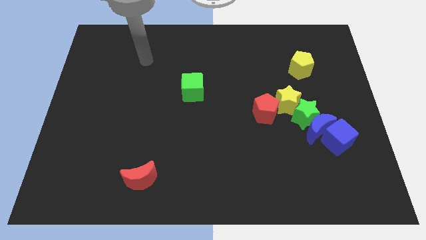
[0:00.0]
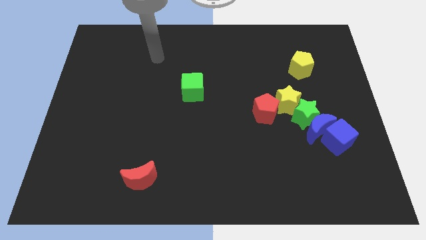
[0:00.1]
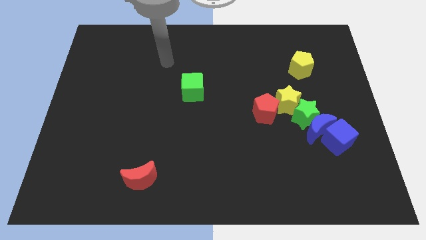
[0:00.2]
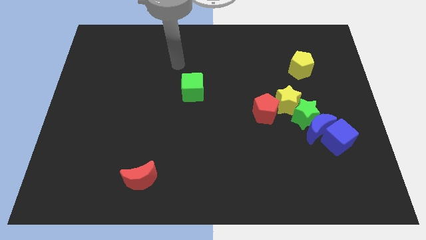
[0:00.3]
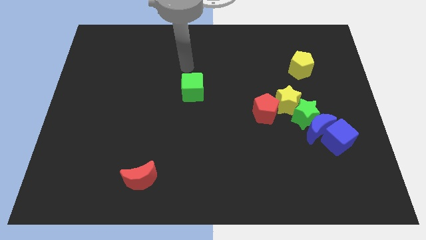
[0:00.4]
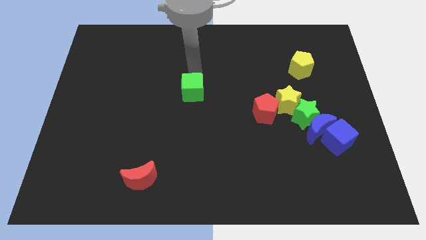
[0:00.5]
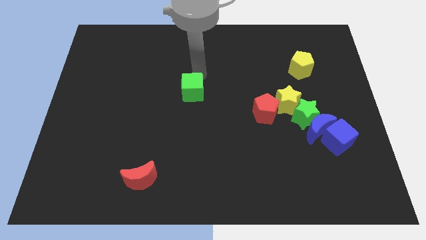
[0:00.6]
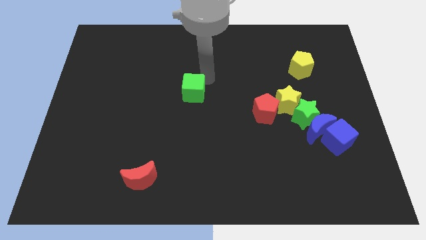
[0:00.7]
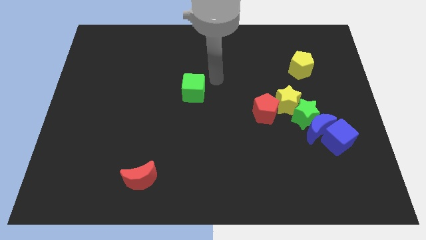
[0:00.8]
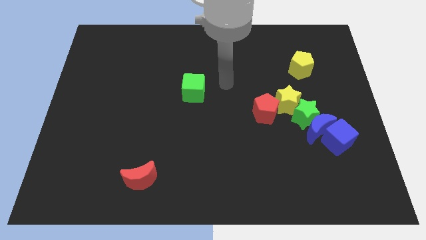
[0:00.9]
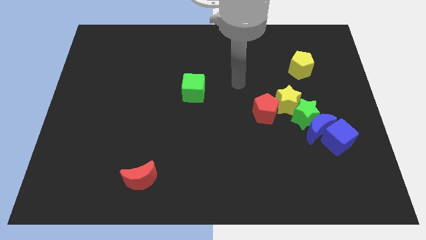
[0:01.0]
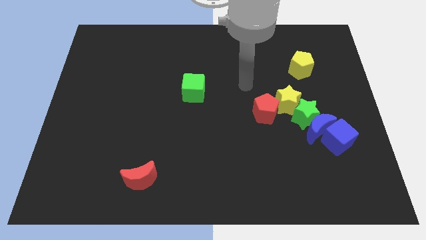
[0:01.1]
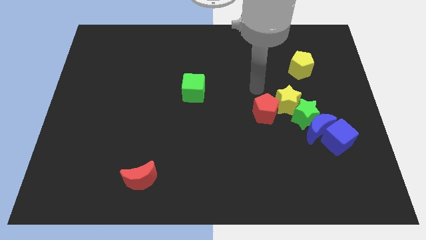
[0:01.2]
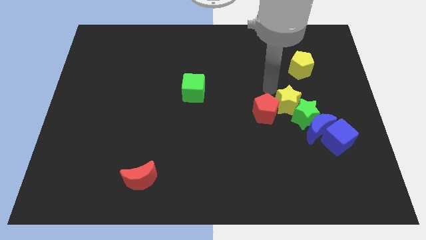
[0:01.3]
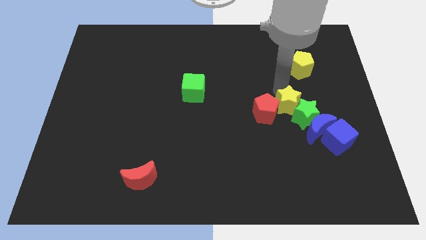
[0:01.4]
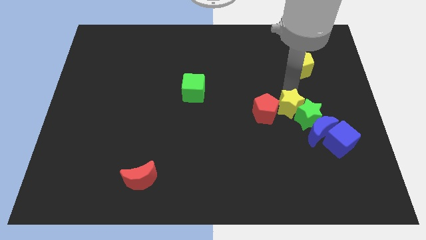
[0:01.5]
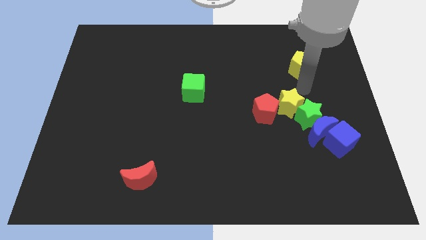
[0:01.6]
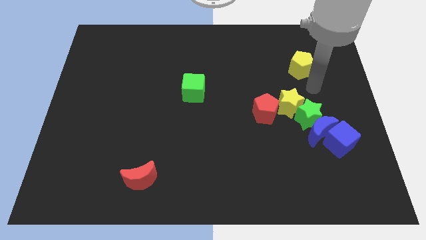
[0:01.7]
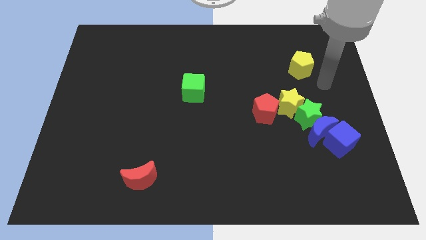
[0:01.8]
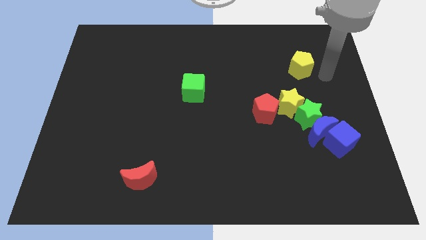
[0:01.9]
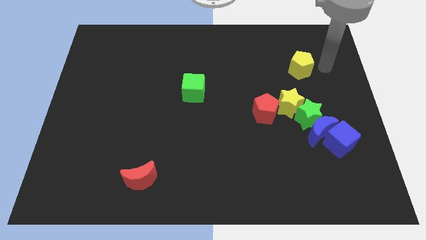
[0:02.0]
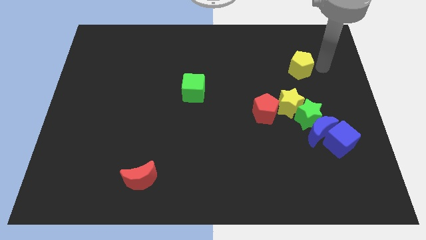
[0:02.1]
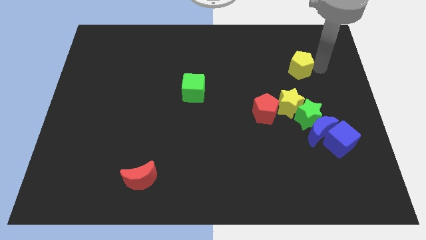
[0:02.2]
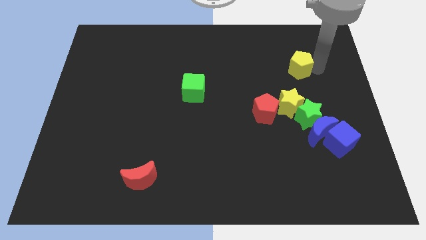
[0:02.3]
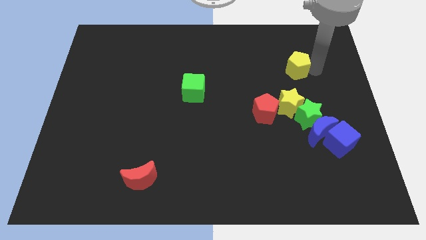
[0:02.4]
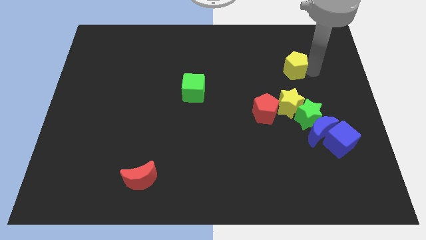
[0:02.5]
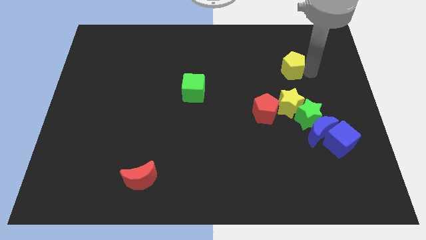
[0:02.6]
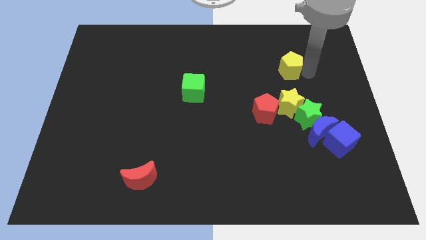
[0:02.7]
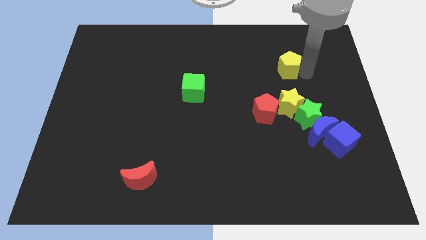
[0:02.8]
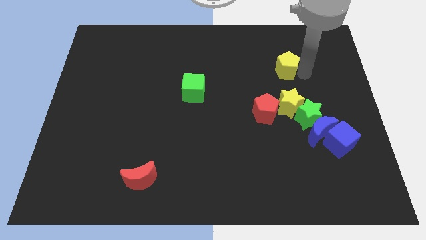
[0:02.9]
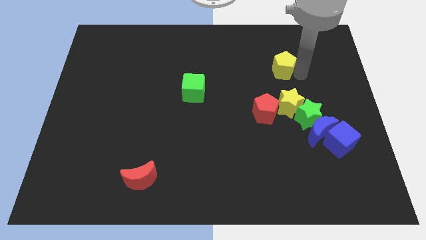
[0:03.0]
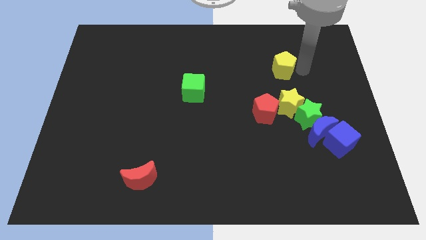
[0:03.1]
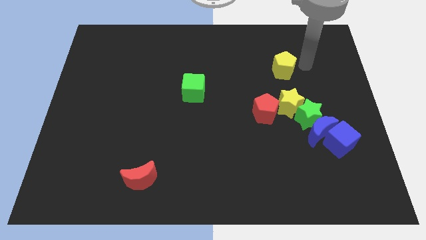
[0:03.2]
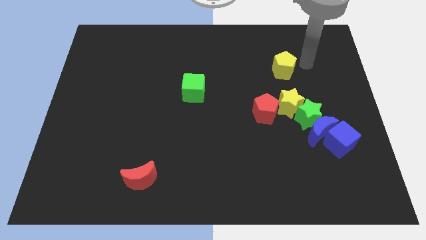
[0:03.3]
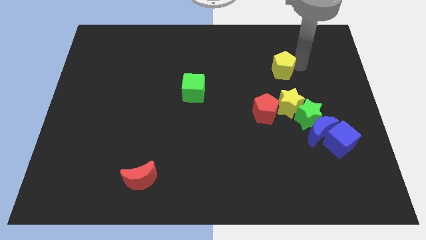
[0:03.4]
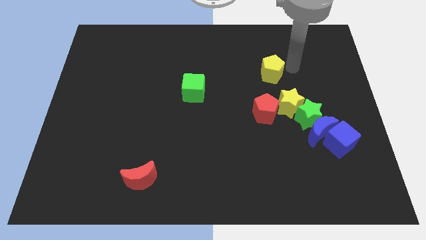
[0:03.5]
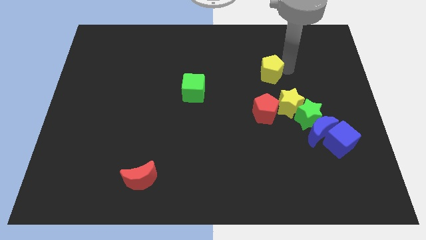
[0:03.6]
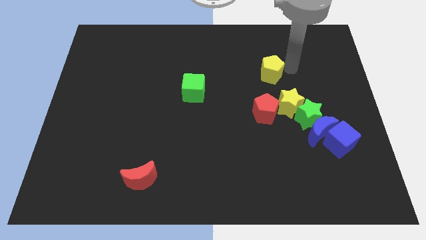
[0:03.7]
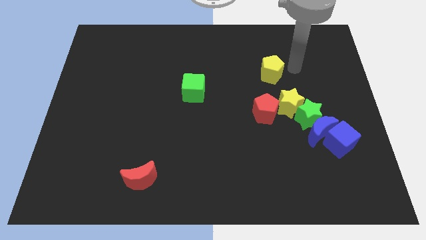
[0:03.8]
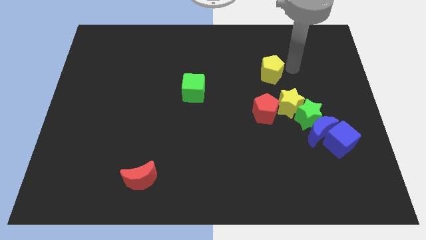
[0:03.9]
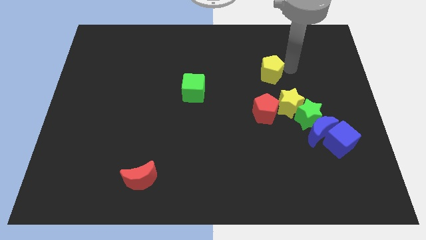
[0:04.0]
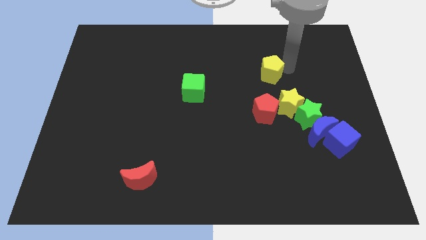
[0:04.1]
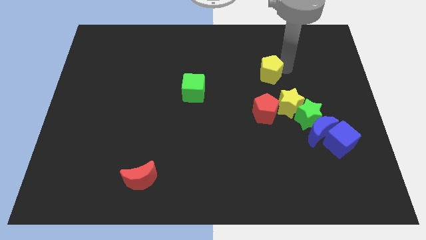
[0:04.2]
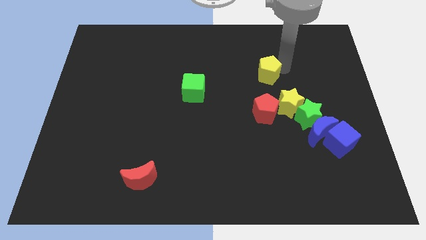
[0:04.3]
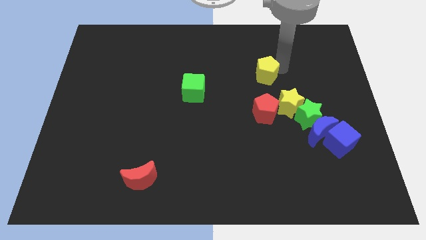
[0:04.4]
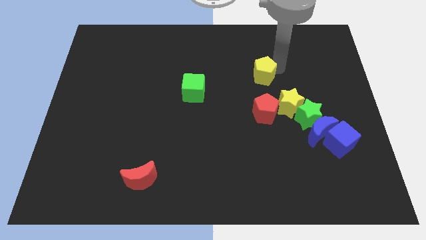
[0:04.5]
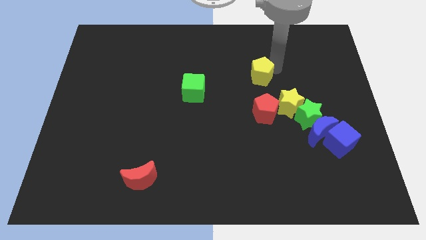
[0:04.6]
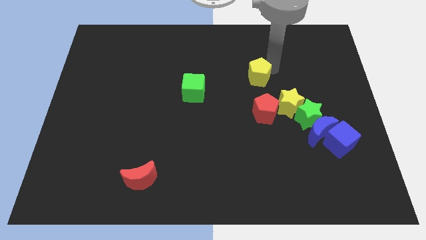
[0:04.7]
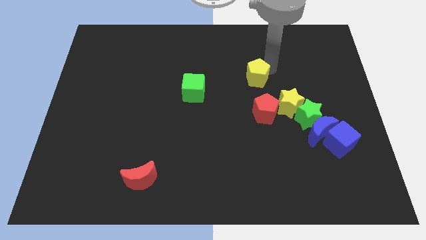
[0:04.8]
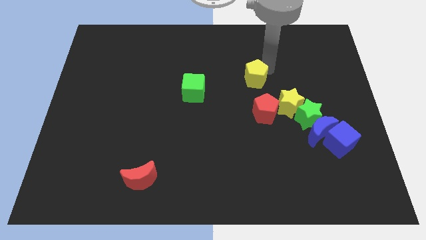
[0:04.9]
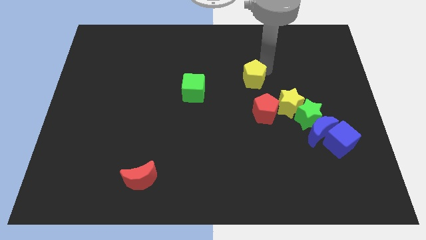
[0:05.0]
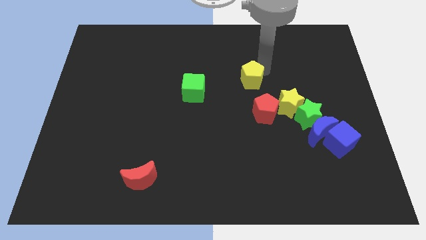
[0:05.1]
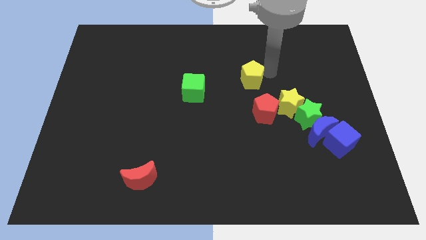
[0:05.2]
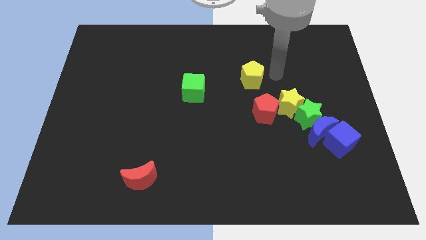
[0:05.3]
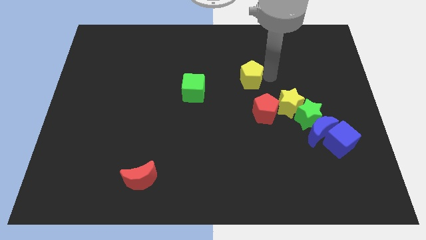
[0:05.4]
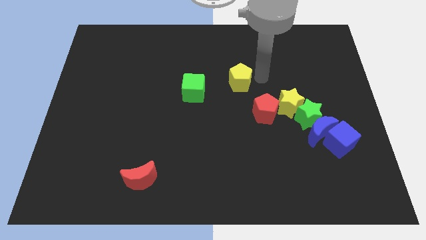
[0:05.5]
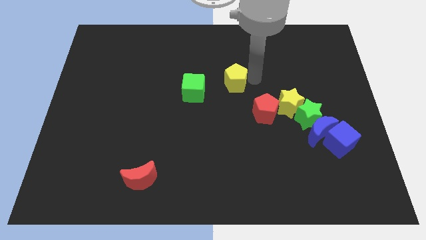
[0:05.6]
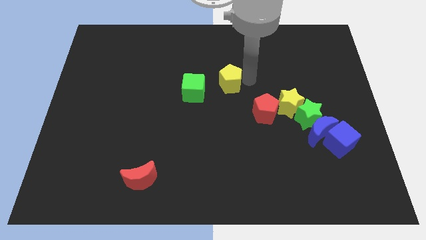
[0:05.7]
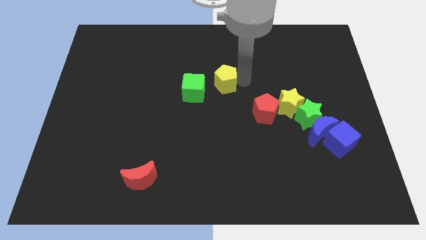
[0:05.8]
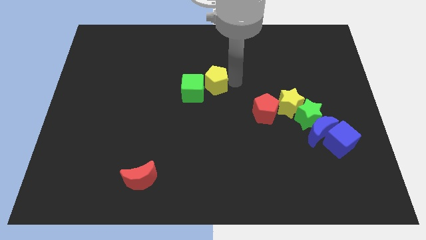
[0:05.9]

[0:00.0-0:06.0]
move the yellow pentagon towards the green cube

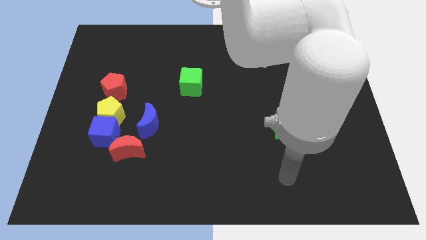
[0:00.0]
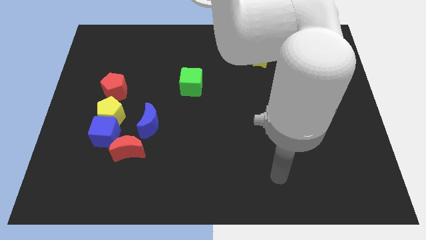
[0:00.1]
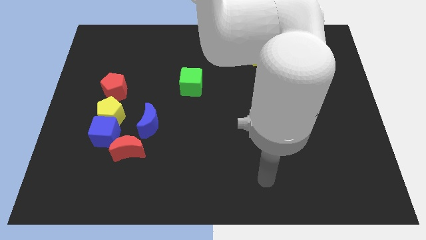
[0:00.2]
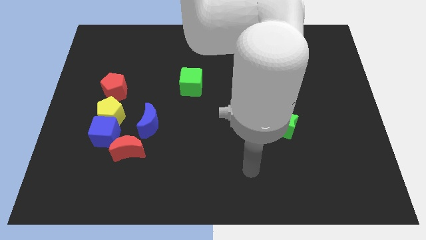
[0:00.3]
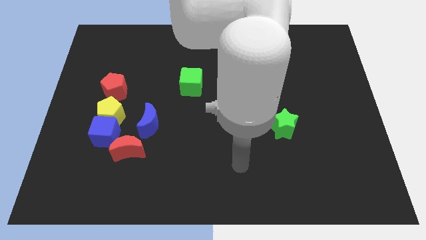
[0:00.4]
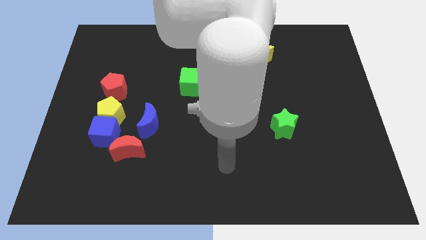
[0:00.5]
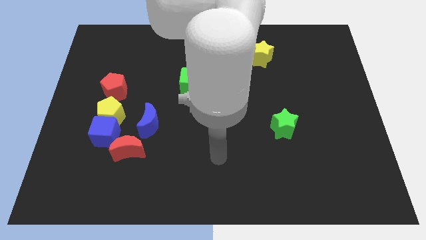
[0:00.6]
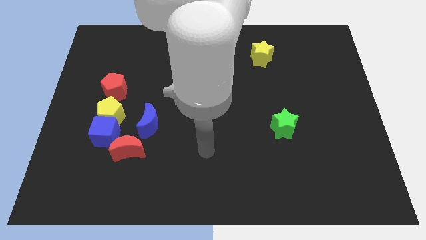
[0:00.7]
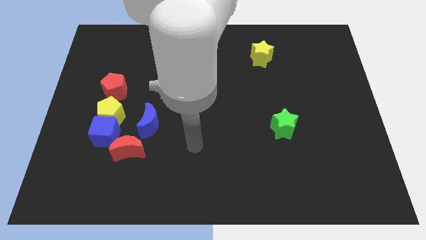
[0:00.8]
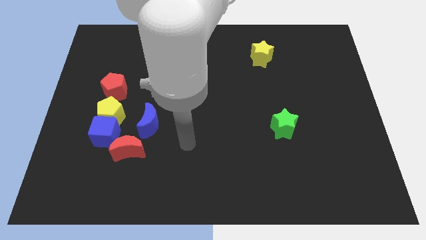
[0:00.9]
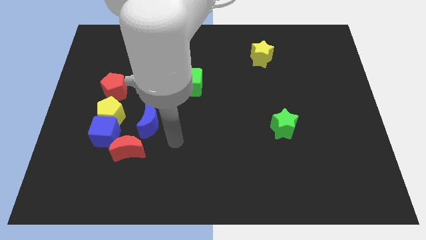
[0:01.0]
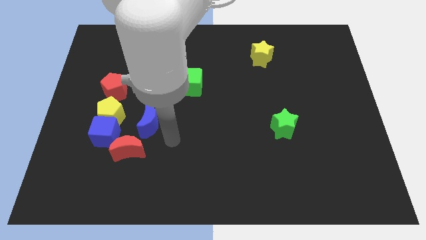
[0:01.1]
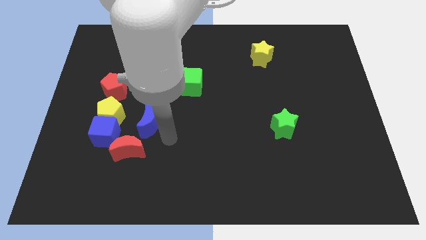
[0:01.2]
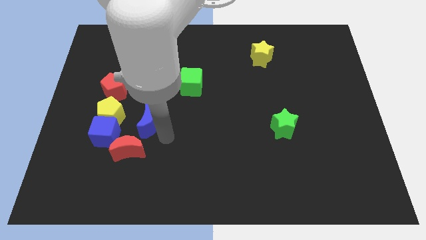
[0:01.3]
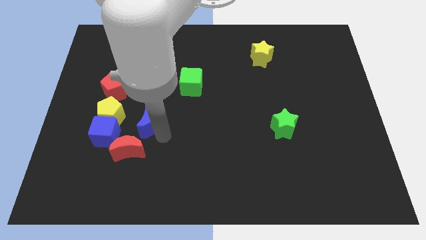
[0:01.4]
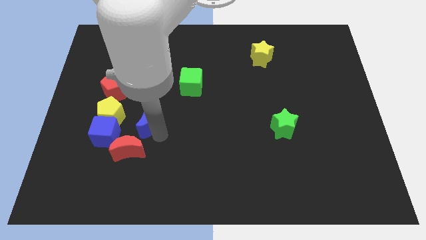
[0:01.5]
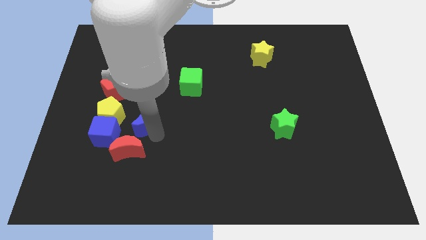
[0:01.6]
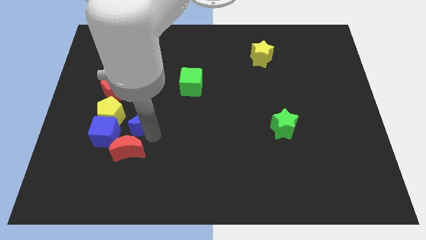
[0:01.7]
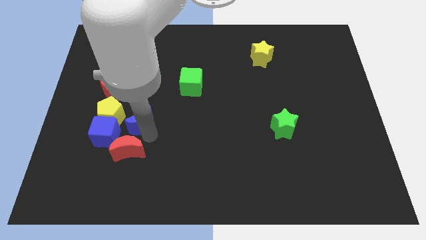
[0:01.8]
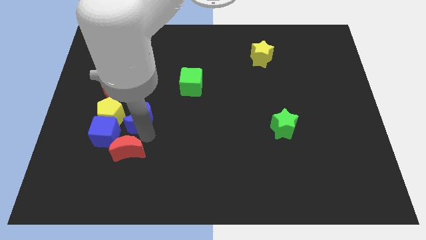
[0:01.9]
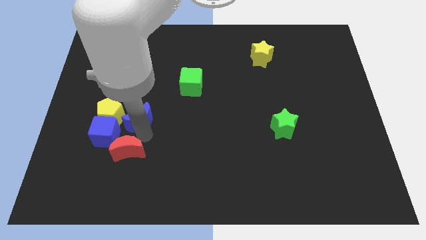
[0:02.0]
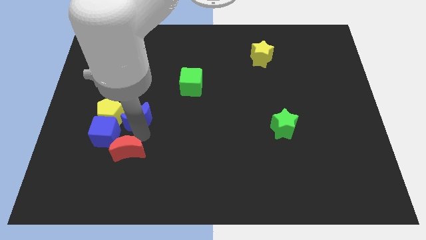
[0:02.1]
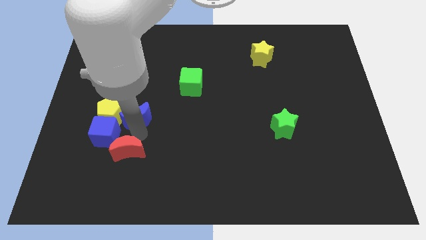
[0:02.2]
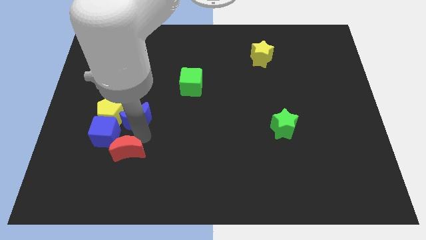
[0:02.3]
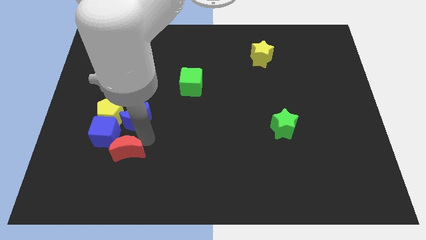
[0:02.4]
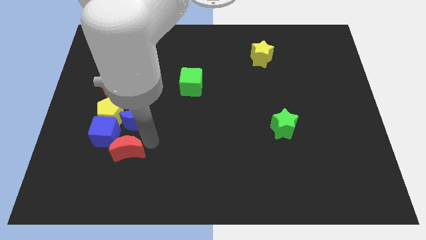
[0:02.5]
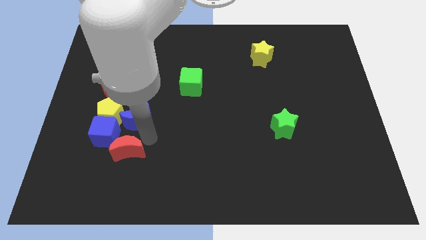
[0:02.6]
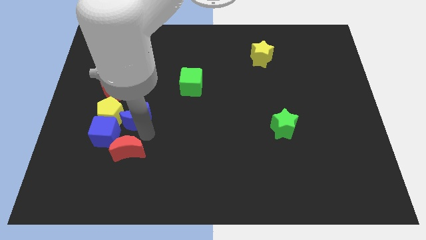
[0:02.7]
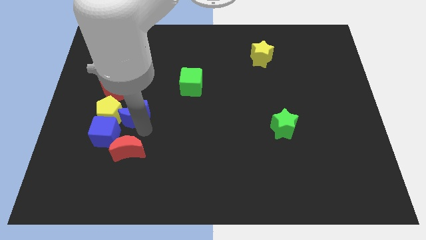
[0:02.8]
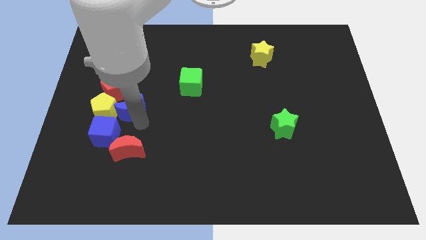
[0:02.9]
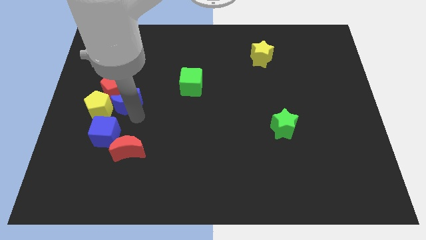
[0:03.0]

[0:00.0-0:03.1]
slide the blue moon next to the red pentagon
